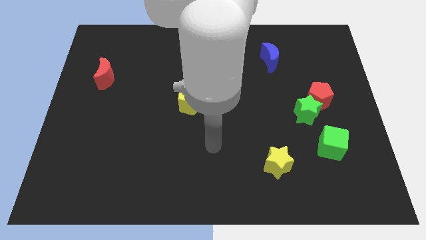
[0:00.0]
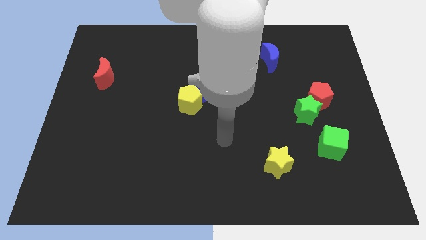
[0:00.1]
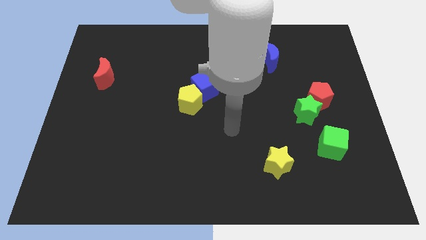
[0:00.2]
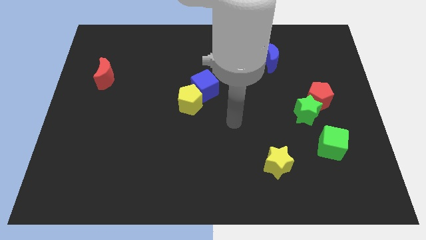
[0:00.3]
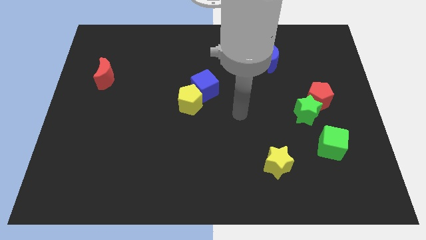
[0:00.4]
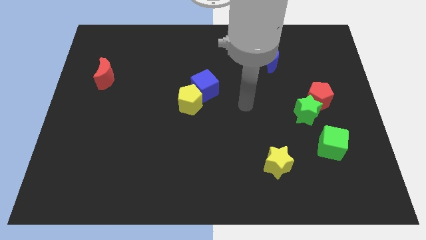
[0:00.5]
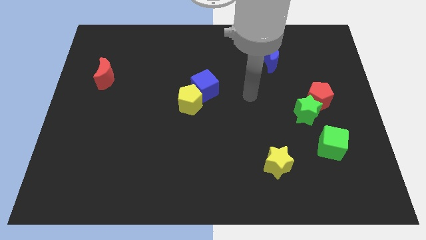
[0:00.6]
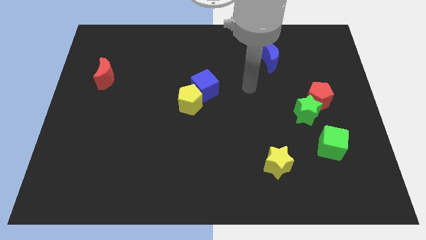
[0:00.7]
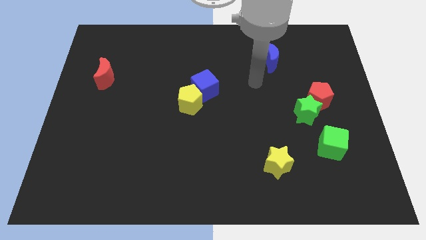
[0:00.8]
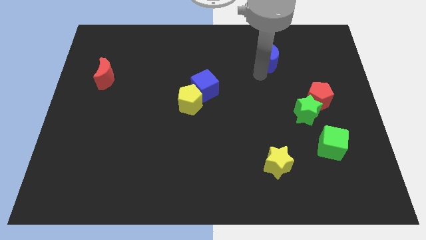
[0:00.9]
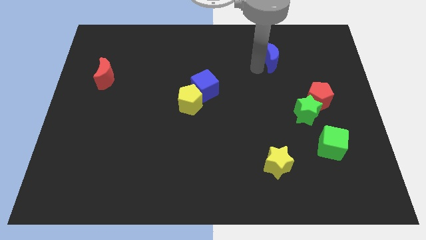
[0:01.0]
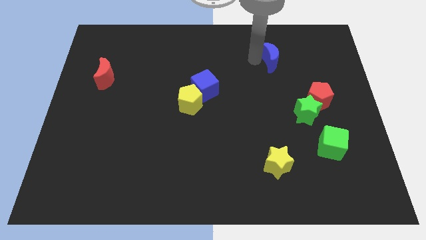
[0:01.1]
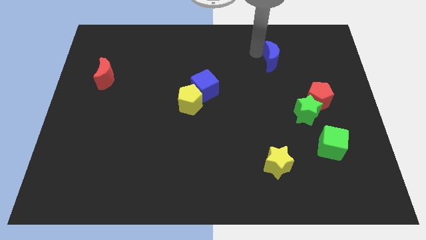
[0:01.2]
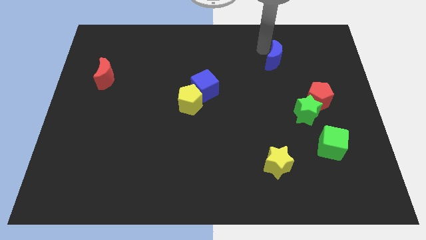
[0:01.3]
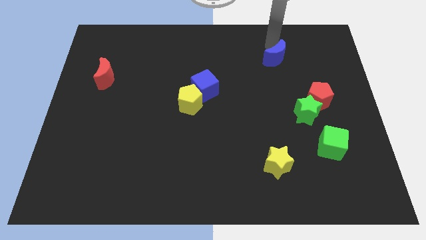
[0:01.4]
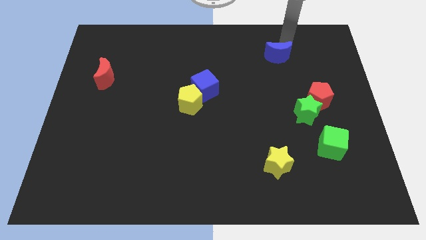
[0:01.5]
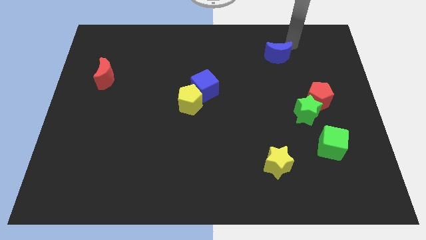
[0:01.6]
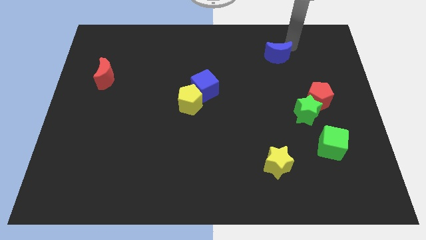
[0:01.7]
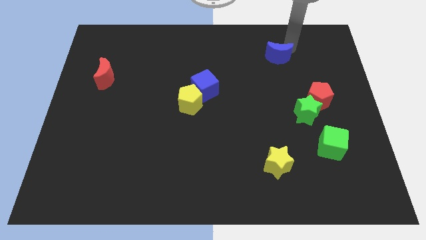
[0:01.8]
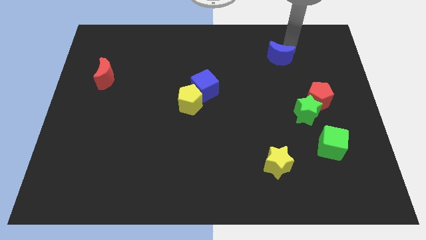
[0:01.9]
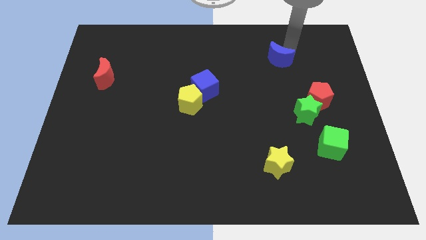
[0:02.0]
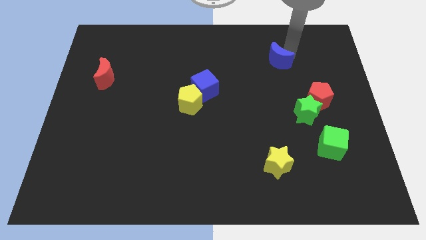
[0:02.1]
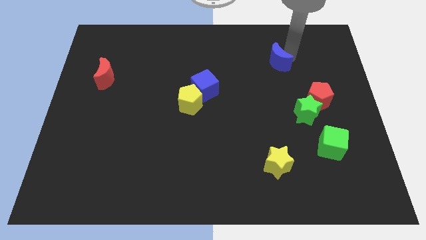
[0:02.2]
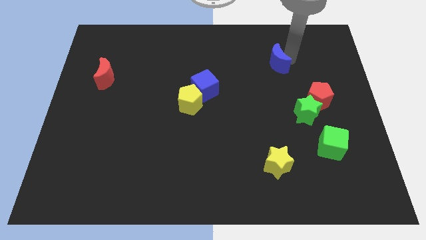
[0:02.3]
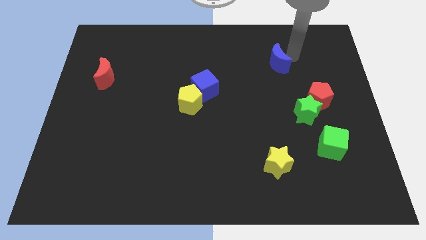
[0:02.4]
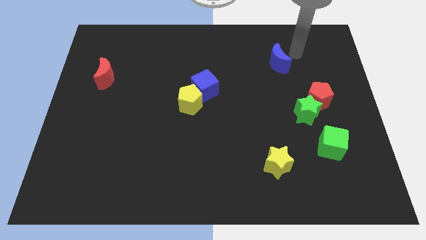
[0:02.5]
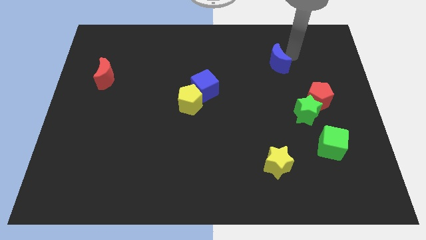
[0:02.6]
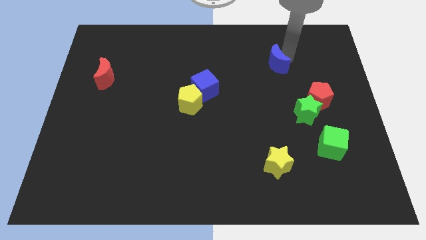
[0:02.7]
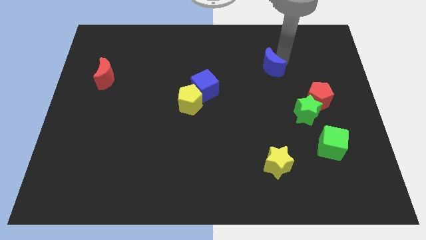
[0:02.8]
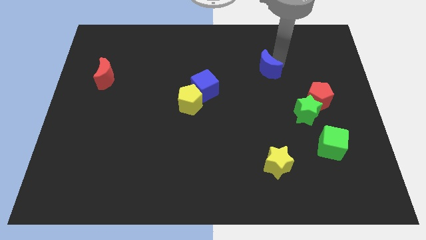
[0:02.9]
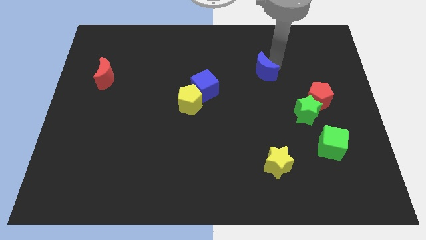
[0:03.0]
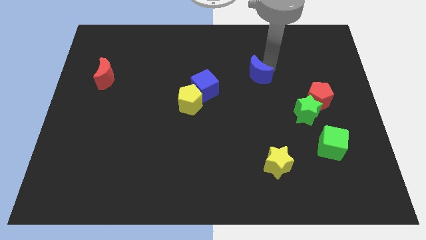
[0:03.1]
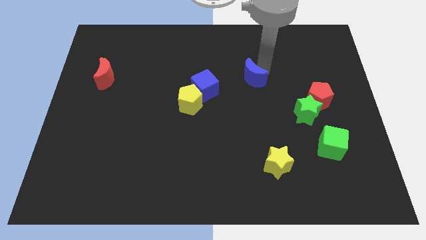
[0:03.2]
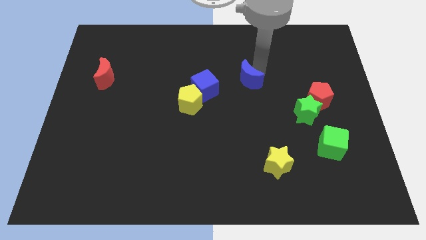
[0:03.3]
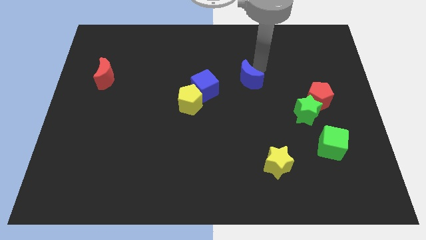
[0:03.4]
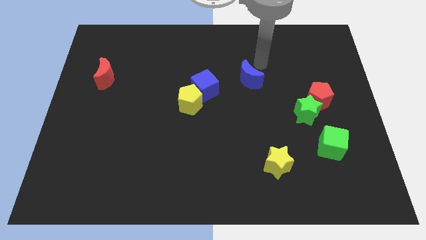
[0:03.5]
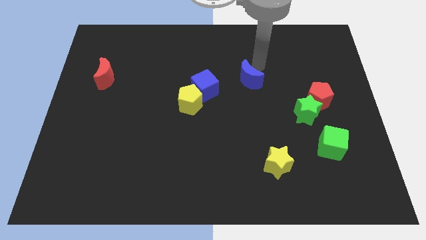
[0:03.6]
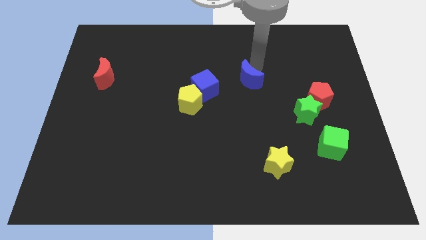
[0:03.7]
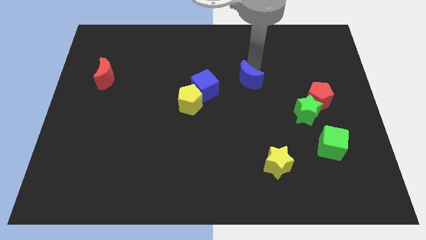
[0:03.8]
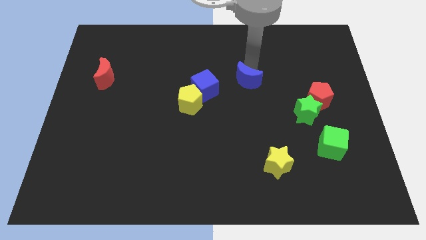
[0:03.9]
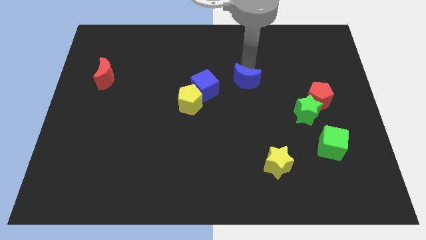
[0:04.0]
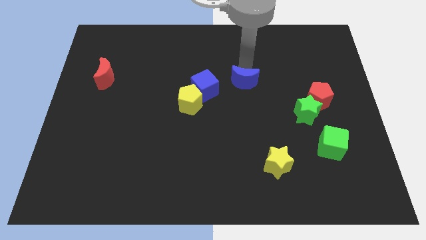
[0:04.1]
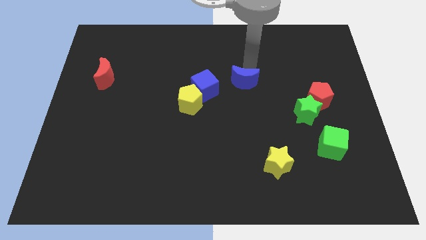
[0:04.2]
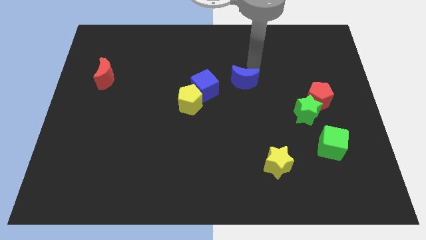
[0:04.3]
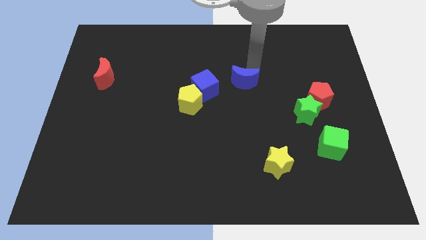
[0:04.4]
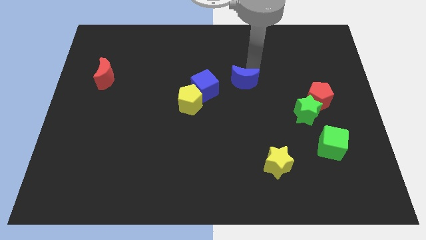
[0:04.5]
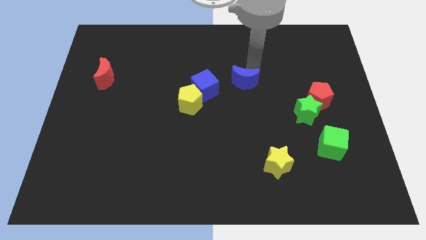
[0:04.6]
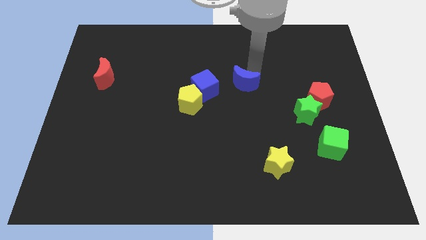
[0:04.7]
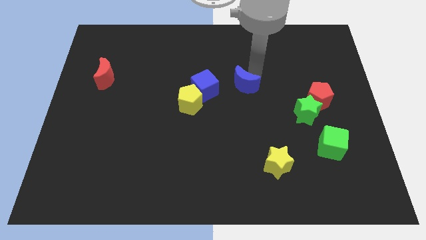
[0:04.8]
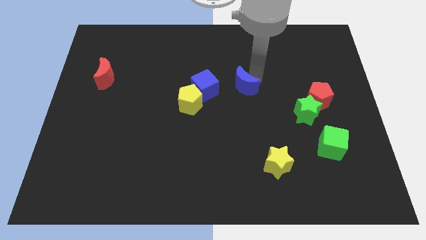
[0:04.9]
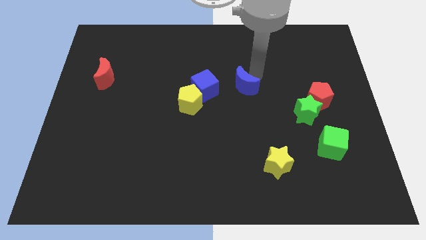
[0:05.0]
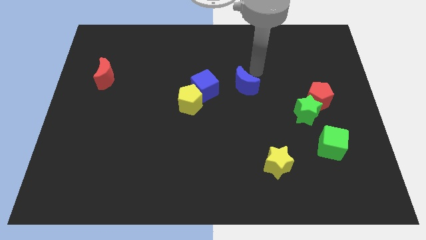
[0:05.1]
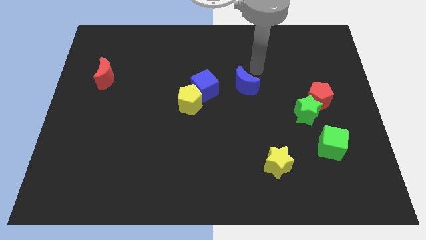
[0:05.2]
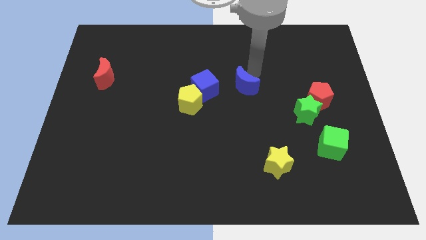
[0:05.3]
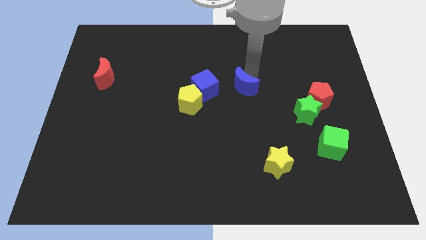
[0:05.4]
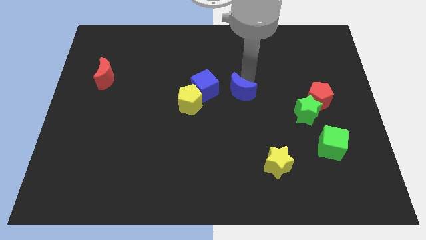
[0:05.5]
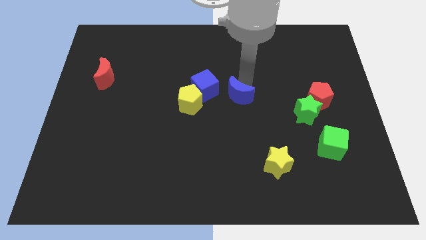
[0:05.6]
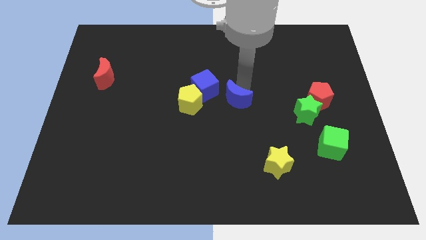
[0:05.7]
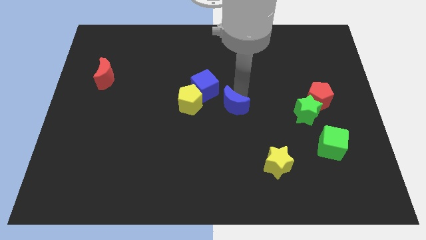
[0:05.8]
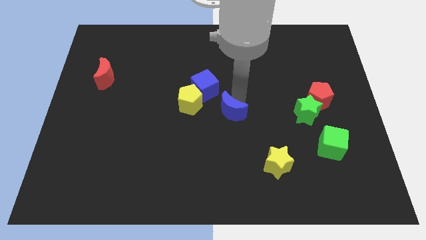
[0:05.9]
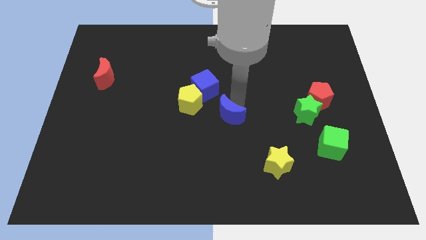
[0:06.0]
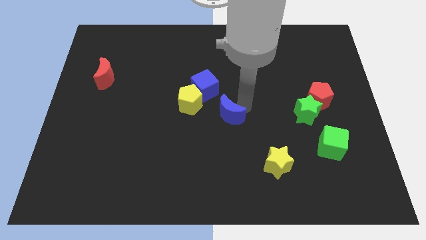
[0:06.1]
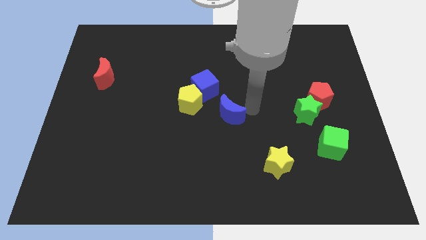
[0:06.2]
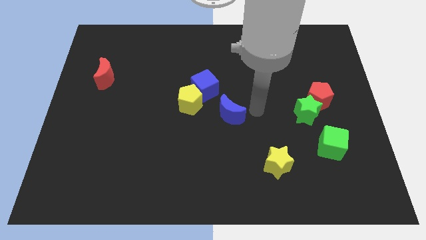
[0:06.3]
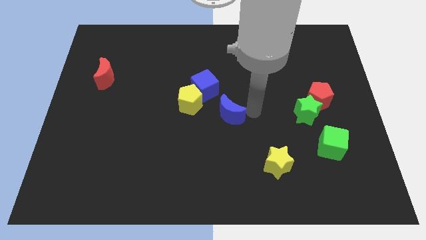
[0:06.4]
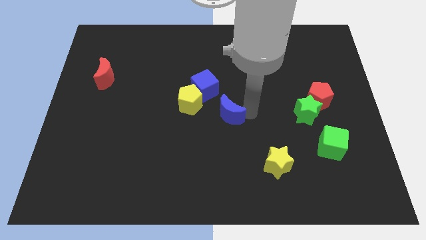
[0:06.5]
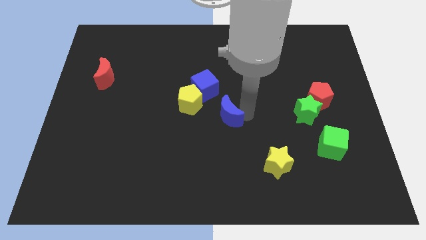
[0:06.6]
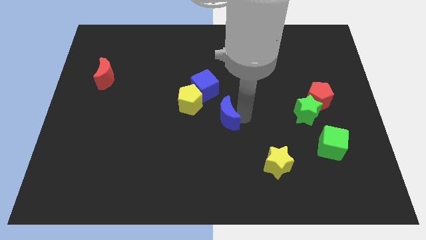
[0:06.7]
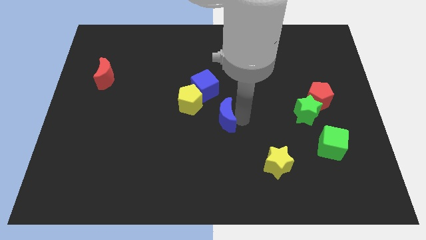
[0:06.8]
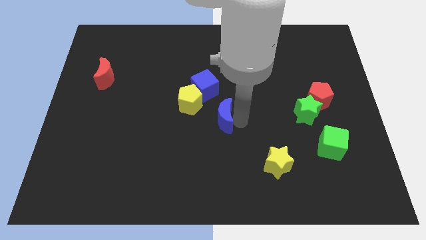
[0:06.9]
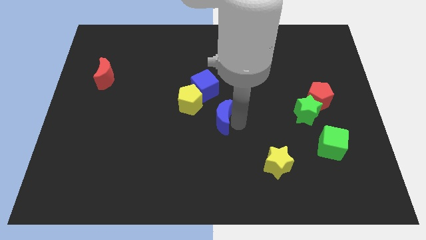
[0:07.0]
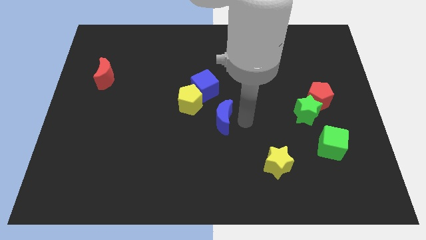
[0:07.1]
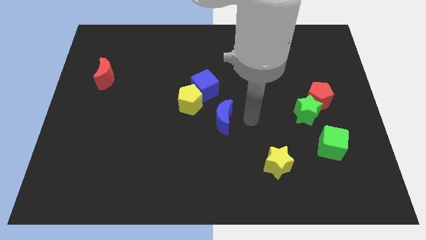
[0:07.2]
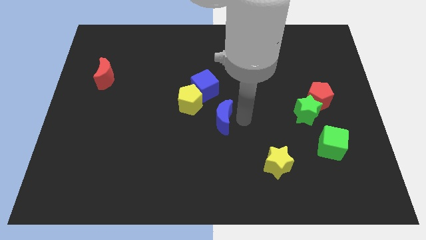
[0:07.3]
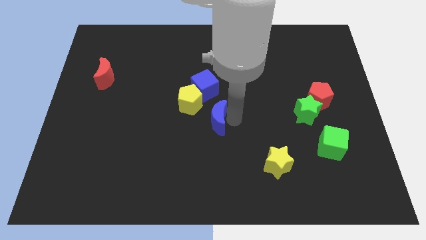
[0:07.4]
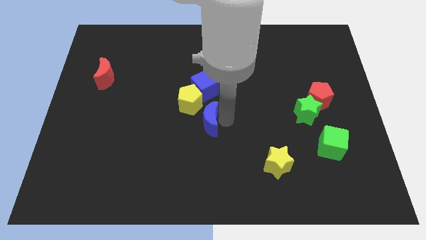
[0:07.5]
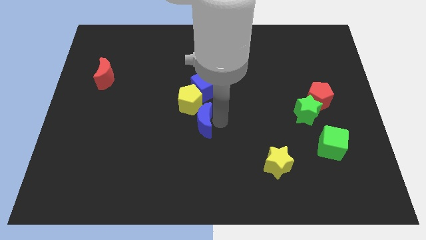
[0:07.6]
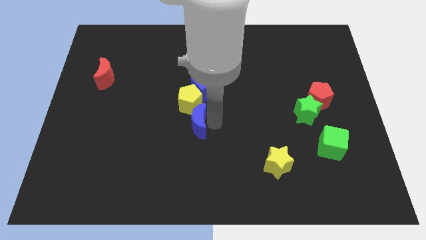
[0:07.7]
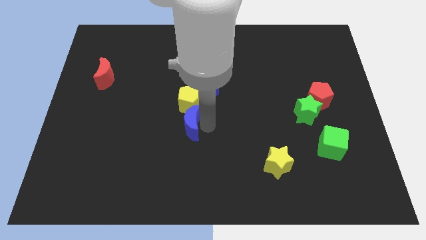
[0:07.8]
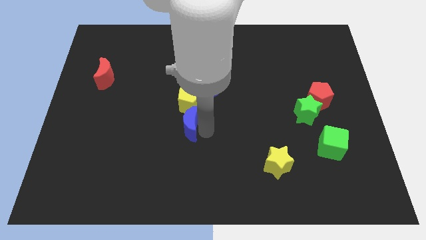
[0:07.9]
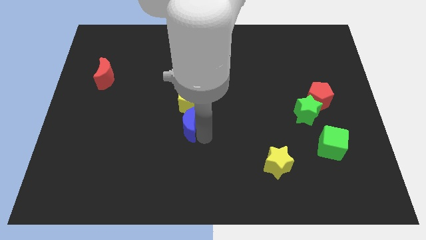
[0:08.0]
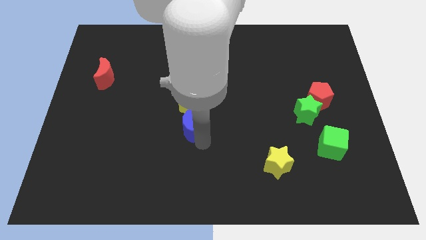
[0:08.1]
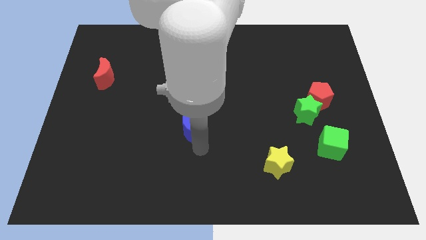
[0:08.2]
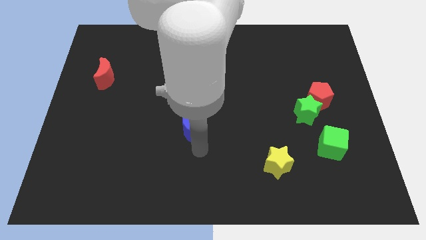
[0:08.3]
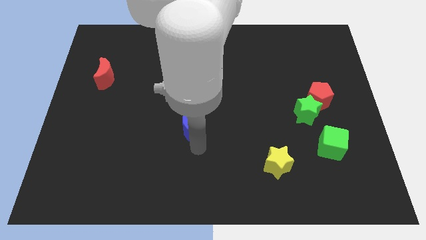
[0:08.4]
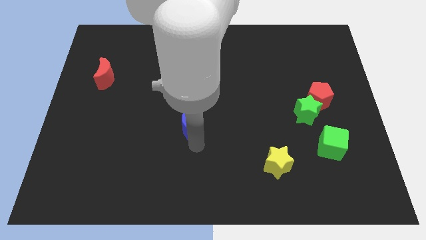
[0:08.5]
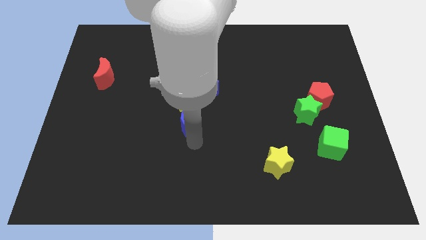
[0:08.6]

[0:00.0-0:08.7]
push the blue moon to the bottom left side of the blue cube
